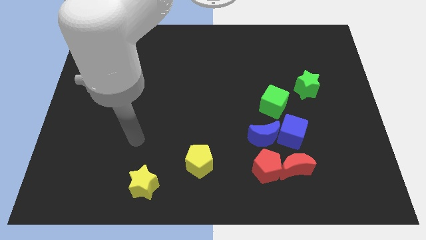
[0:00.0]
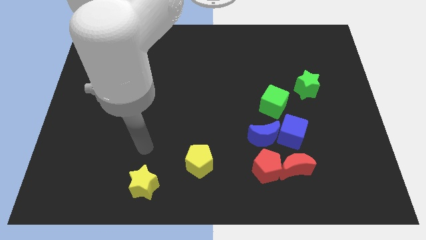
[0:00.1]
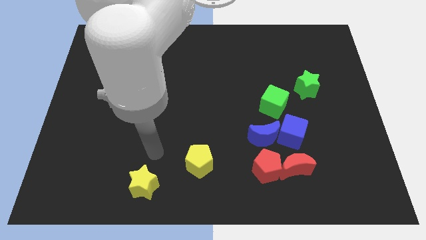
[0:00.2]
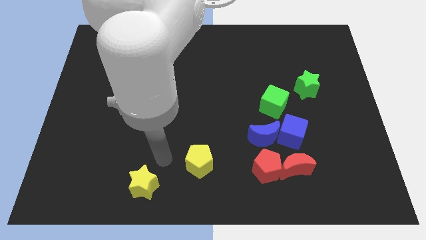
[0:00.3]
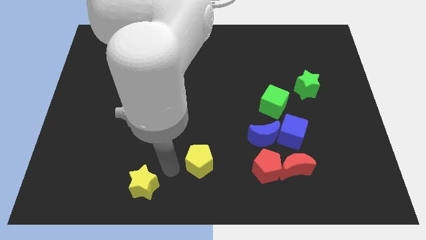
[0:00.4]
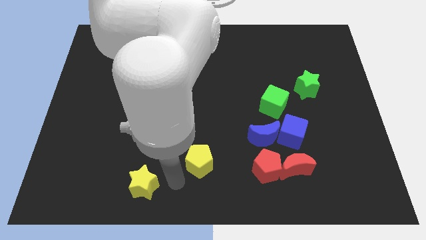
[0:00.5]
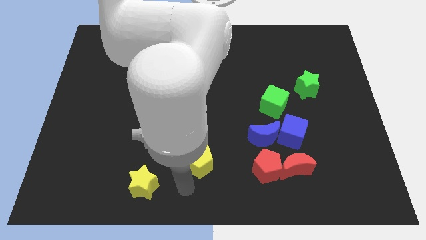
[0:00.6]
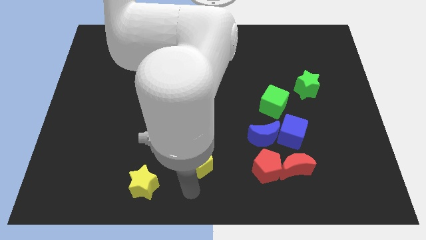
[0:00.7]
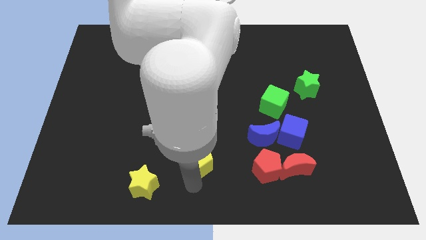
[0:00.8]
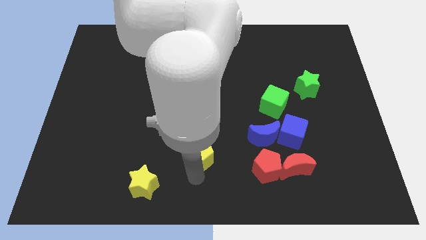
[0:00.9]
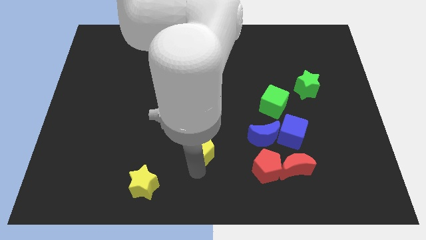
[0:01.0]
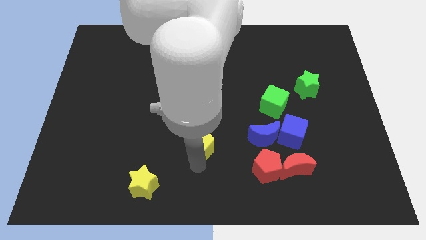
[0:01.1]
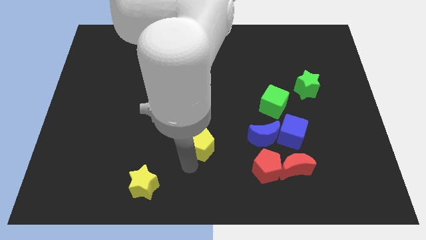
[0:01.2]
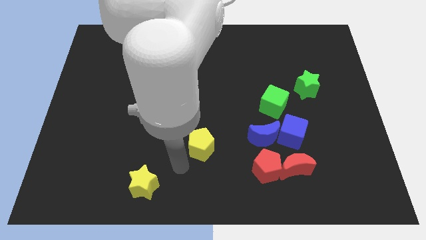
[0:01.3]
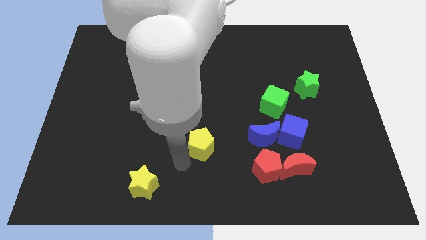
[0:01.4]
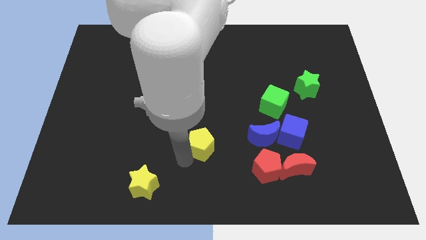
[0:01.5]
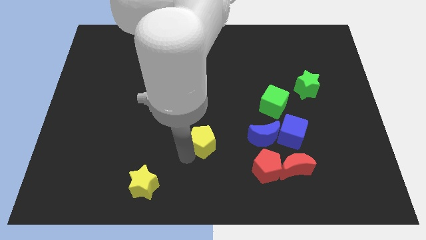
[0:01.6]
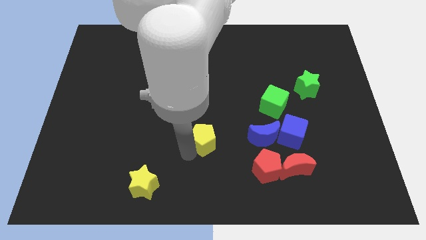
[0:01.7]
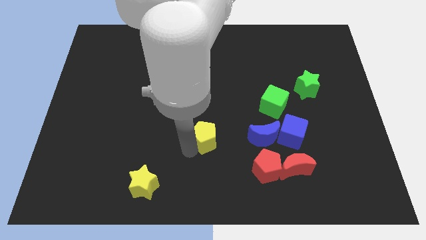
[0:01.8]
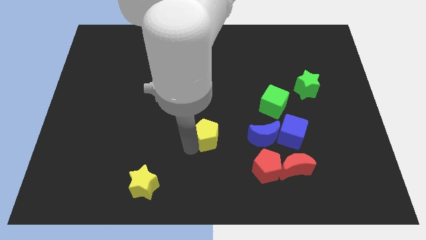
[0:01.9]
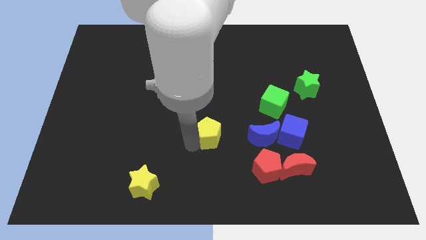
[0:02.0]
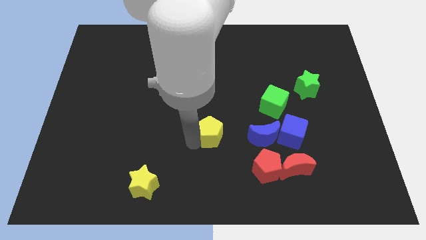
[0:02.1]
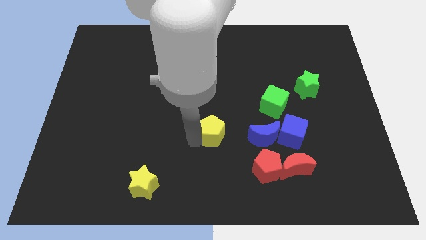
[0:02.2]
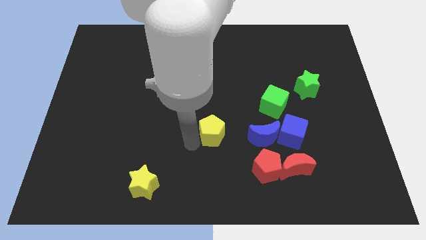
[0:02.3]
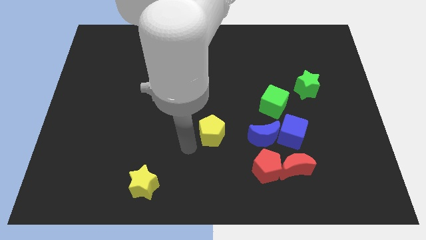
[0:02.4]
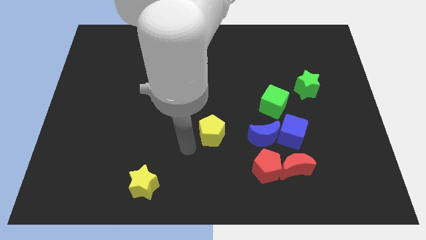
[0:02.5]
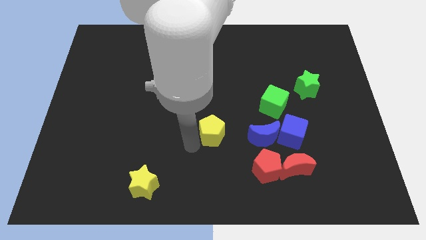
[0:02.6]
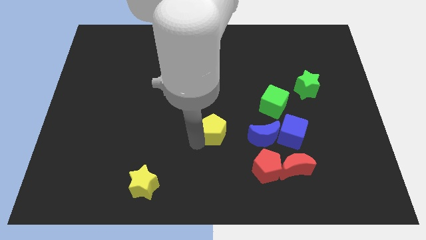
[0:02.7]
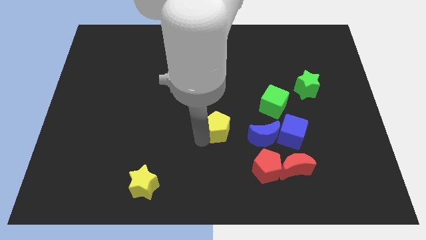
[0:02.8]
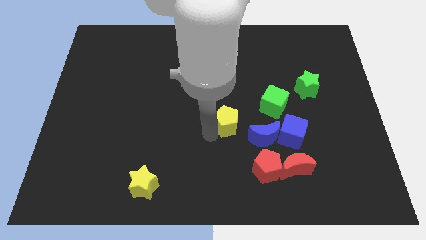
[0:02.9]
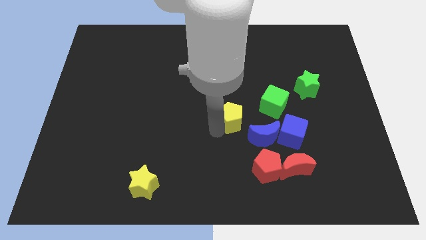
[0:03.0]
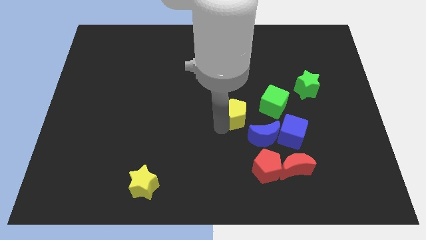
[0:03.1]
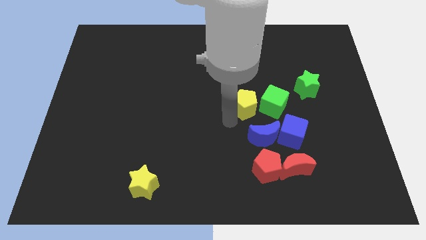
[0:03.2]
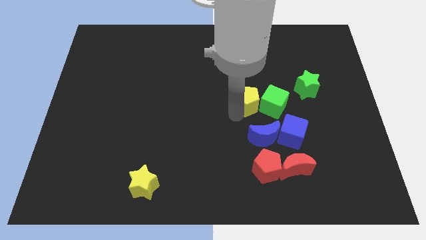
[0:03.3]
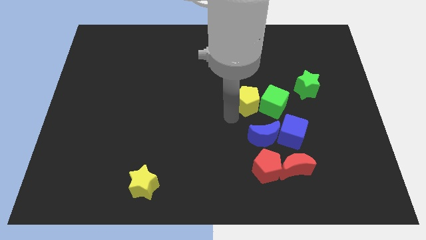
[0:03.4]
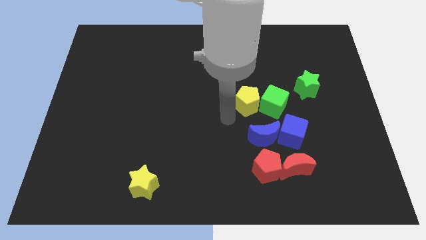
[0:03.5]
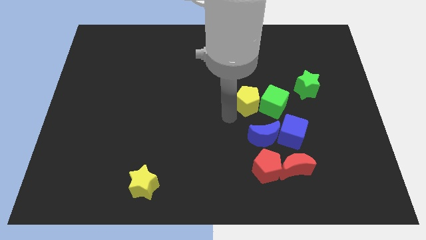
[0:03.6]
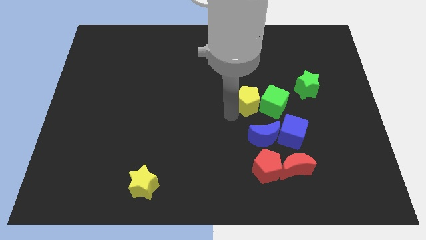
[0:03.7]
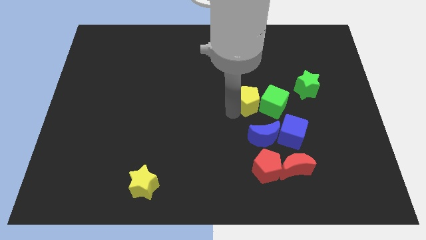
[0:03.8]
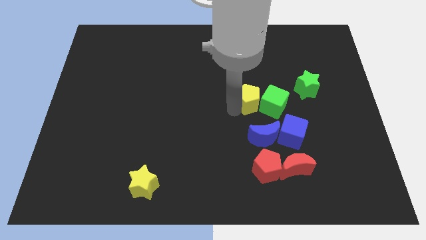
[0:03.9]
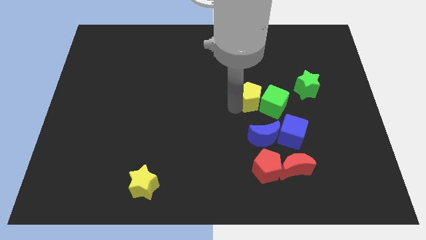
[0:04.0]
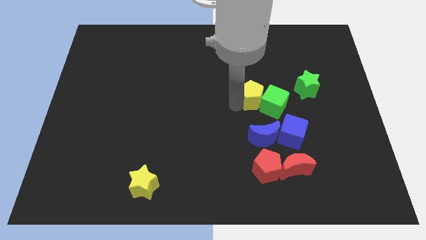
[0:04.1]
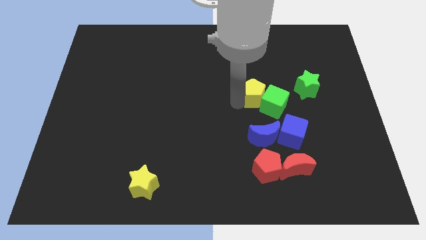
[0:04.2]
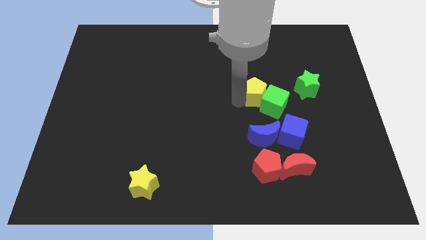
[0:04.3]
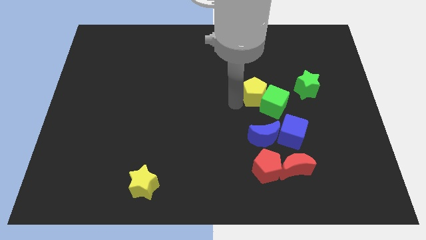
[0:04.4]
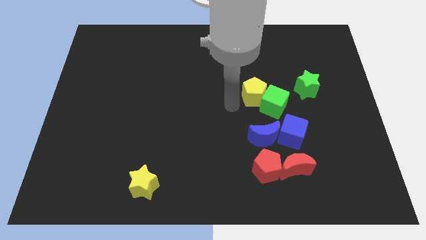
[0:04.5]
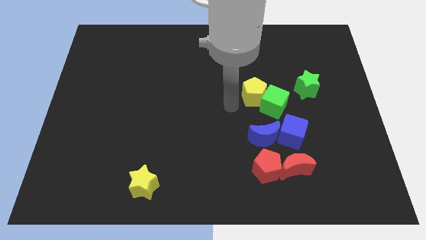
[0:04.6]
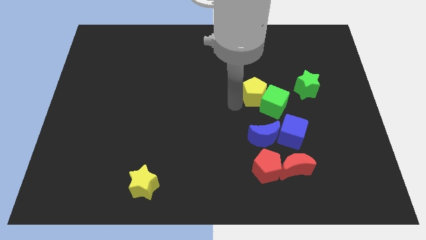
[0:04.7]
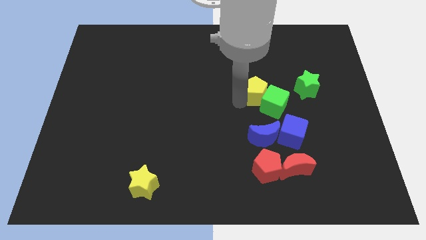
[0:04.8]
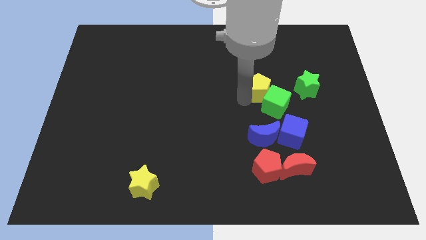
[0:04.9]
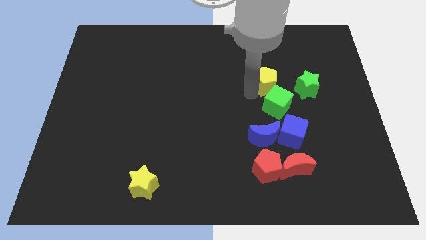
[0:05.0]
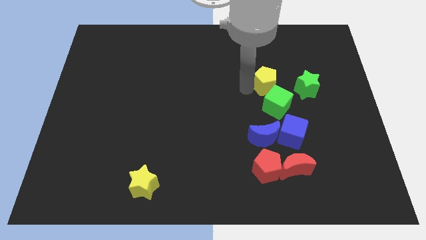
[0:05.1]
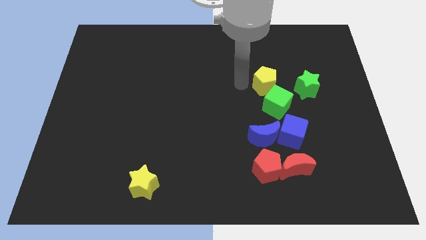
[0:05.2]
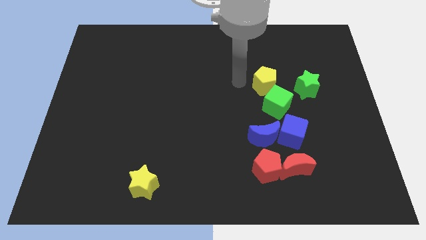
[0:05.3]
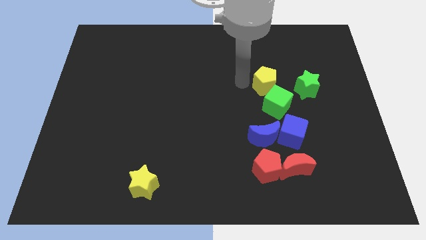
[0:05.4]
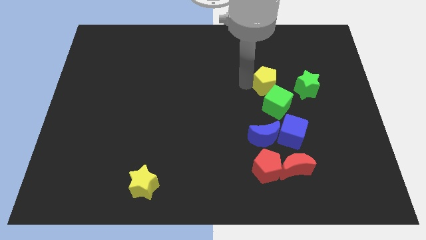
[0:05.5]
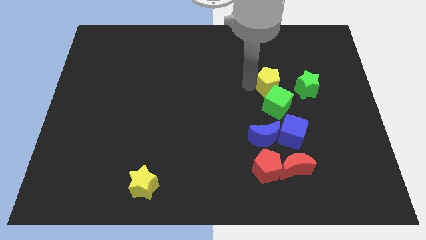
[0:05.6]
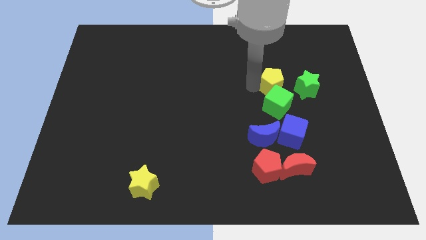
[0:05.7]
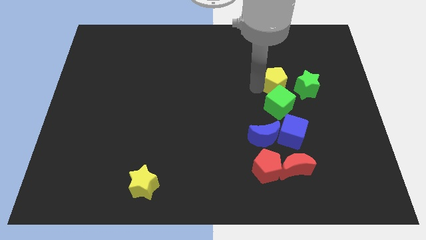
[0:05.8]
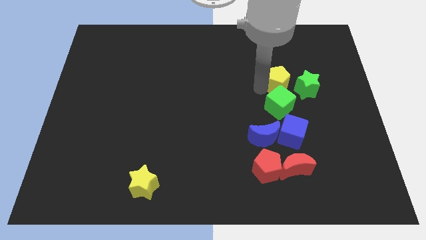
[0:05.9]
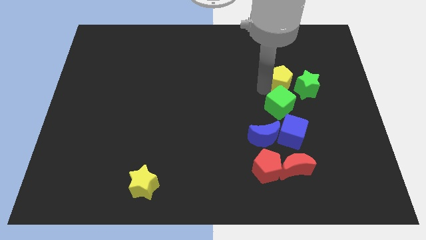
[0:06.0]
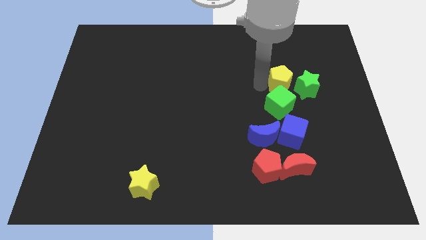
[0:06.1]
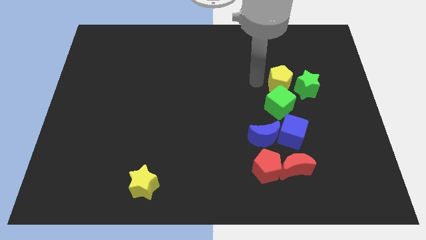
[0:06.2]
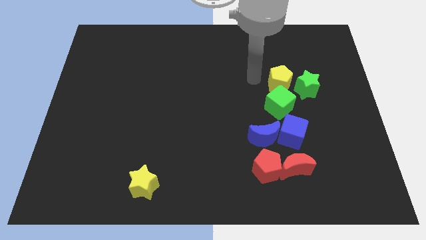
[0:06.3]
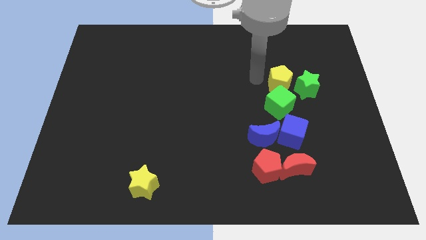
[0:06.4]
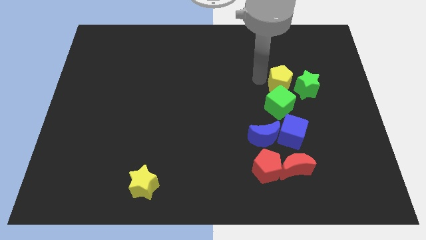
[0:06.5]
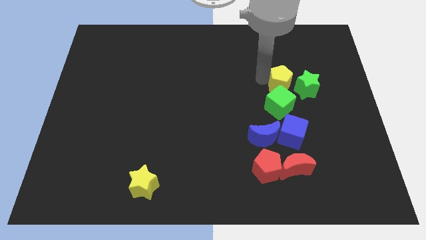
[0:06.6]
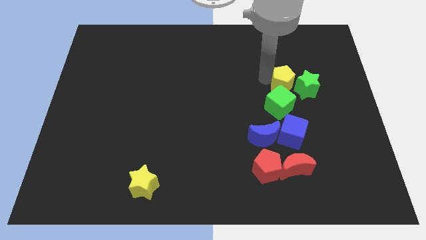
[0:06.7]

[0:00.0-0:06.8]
put the yellow pentagon to the green star

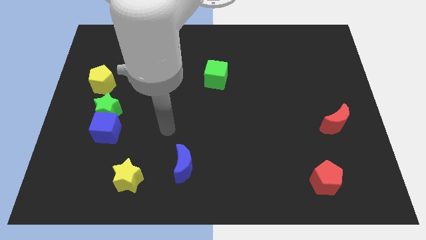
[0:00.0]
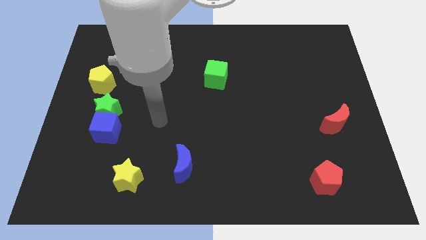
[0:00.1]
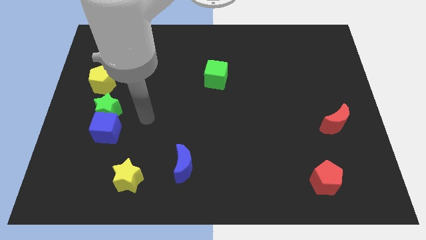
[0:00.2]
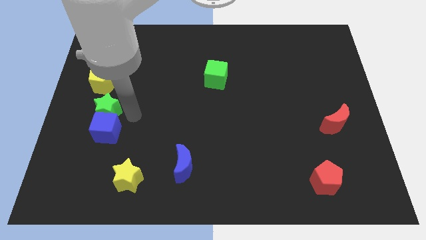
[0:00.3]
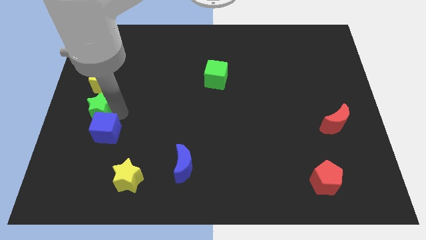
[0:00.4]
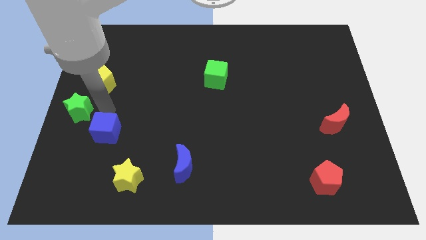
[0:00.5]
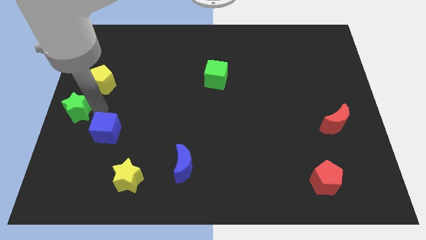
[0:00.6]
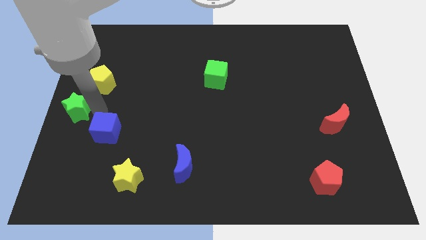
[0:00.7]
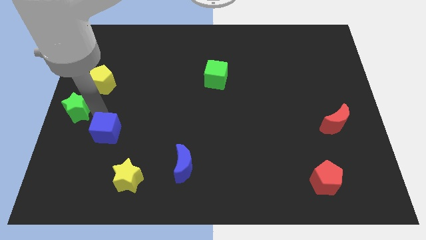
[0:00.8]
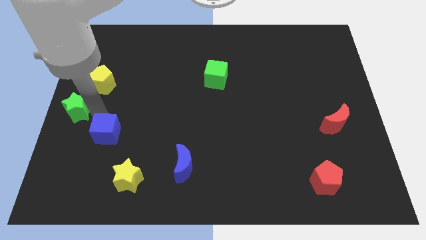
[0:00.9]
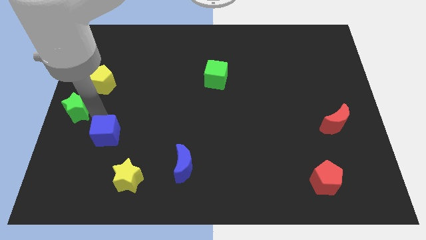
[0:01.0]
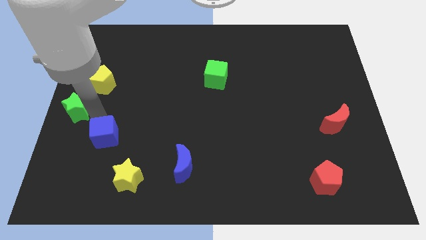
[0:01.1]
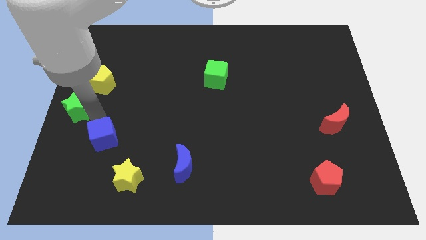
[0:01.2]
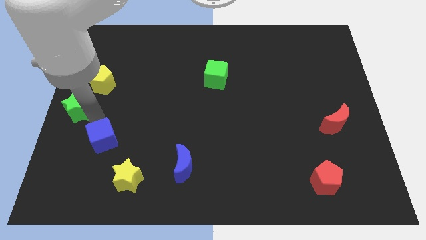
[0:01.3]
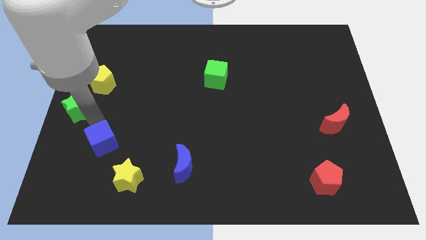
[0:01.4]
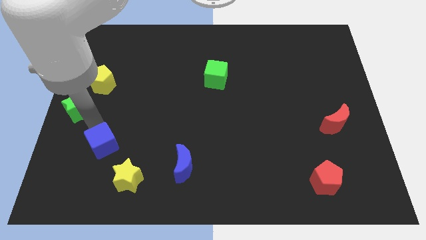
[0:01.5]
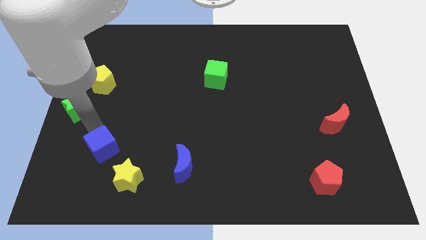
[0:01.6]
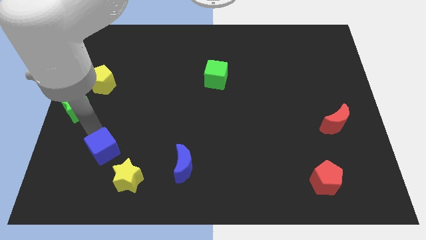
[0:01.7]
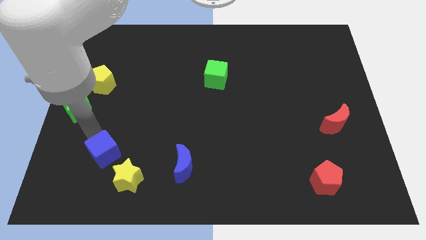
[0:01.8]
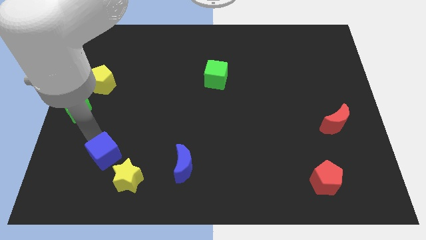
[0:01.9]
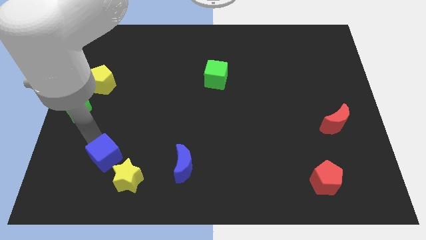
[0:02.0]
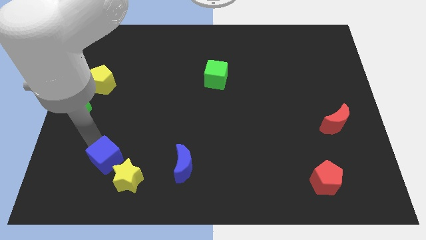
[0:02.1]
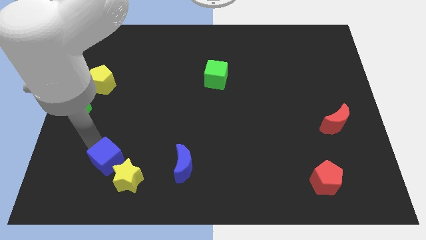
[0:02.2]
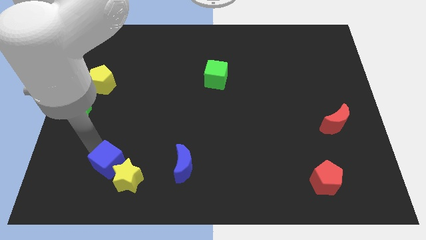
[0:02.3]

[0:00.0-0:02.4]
slide the blue cube close to the yellow star
